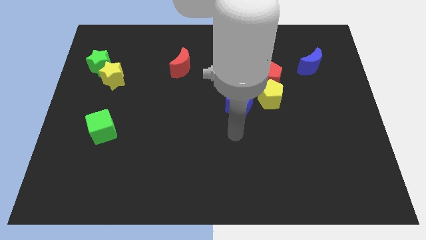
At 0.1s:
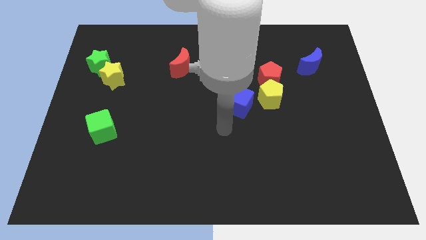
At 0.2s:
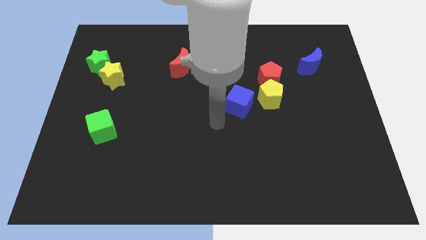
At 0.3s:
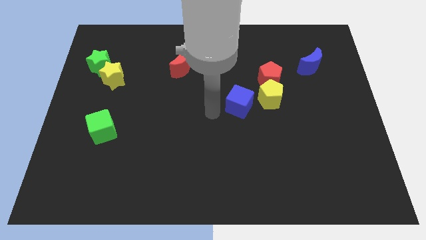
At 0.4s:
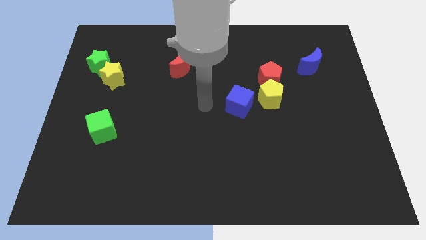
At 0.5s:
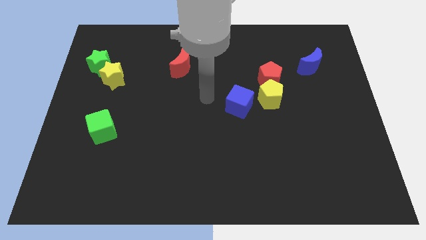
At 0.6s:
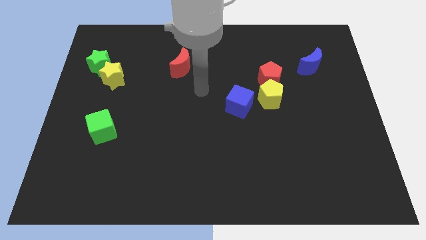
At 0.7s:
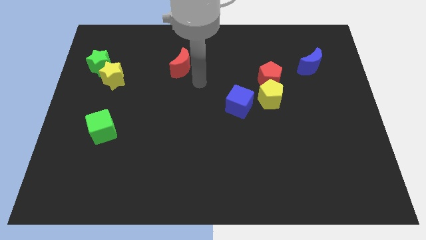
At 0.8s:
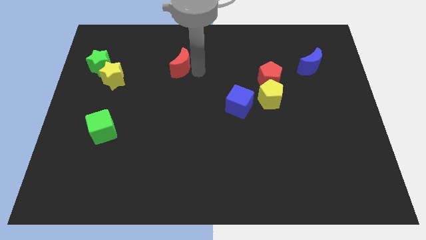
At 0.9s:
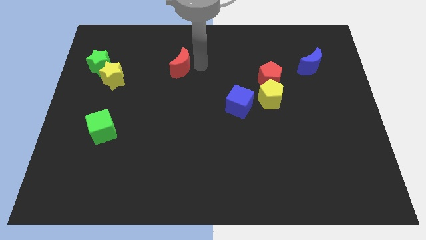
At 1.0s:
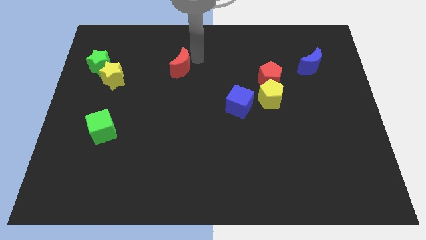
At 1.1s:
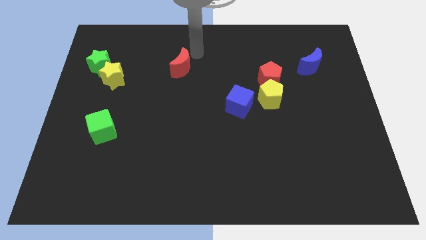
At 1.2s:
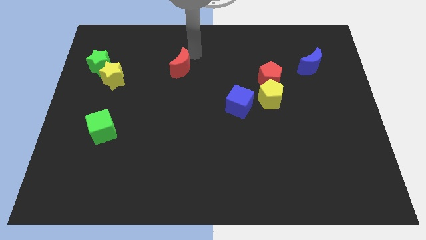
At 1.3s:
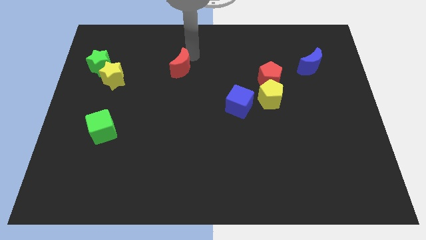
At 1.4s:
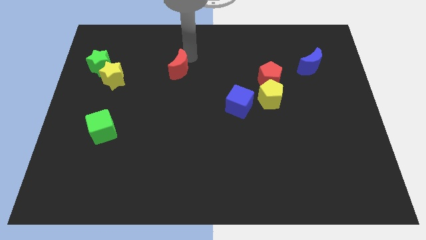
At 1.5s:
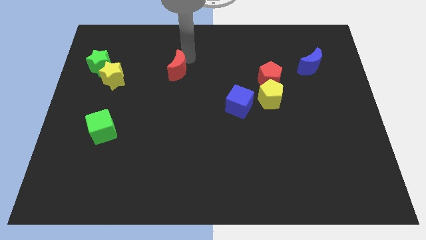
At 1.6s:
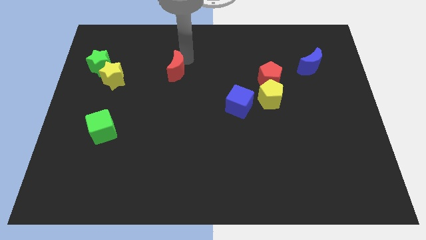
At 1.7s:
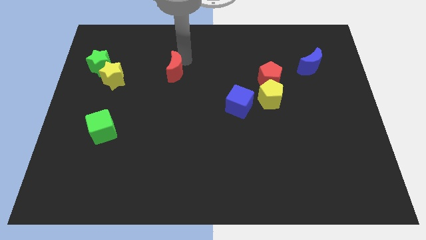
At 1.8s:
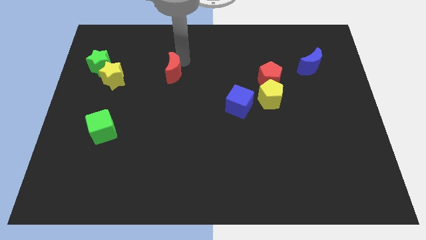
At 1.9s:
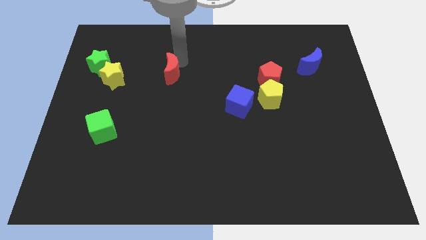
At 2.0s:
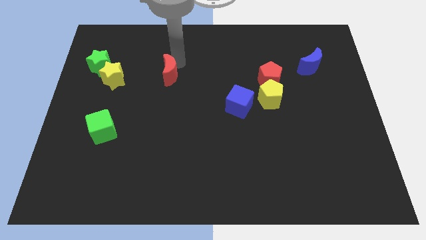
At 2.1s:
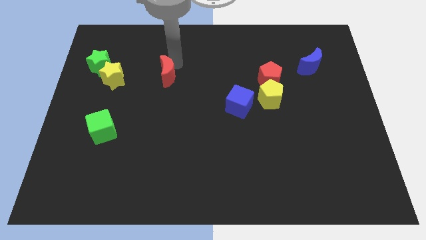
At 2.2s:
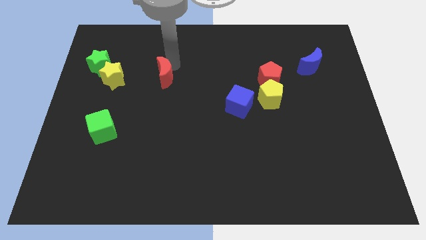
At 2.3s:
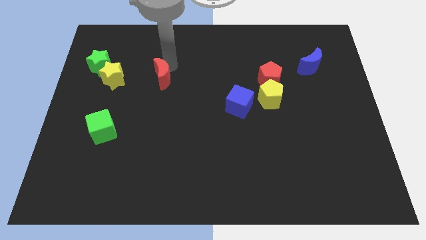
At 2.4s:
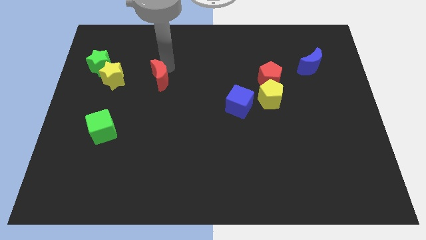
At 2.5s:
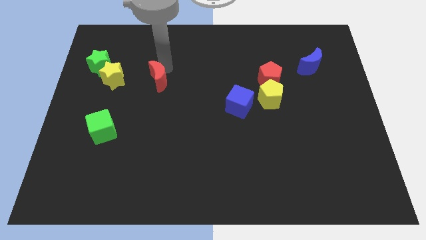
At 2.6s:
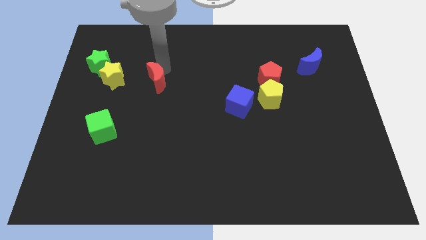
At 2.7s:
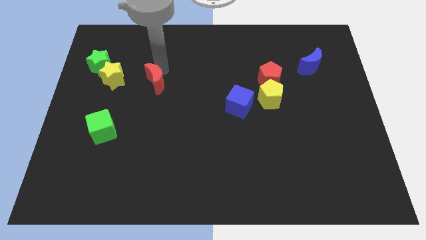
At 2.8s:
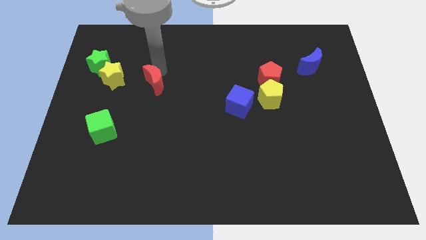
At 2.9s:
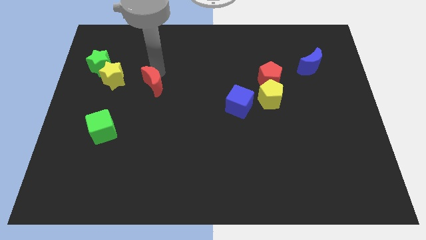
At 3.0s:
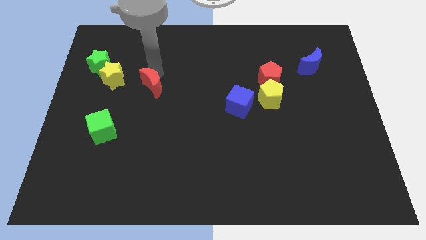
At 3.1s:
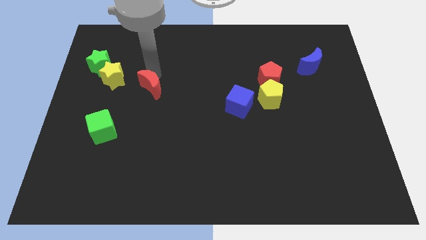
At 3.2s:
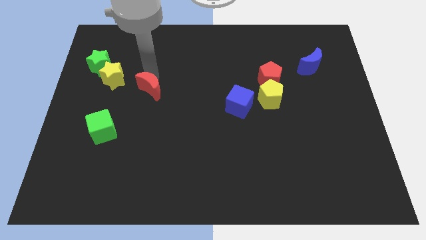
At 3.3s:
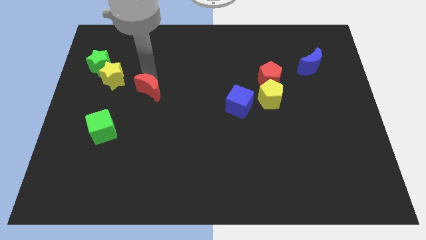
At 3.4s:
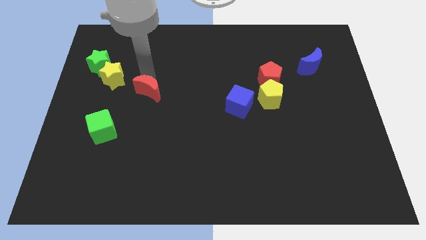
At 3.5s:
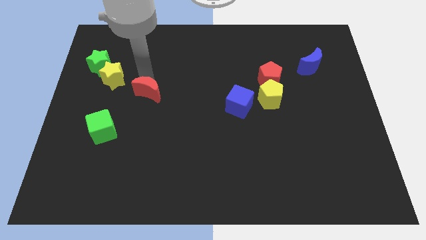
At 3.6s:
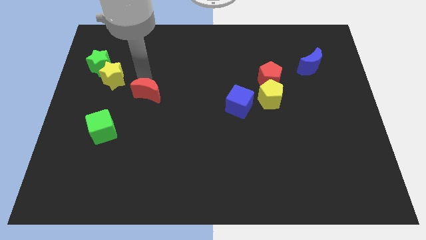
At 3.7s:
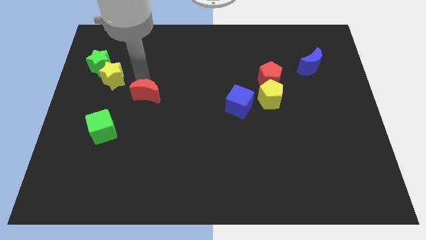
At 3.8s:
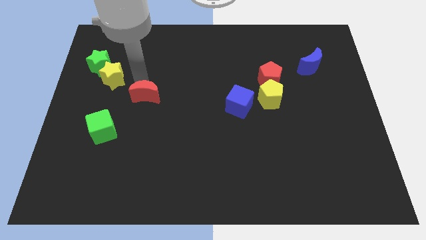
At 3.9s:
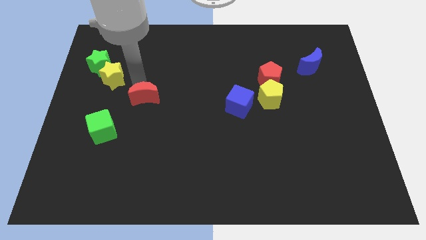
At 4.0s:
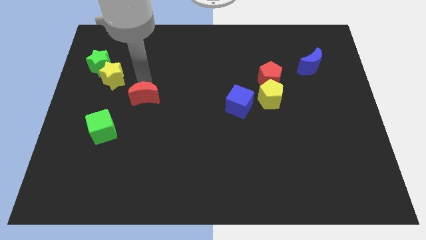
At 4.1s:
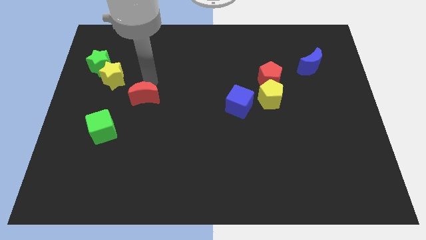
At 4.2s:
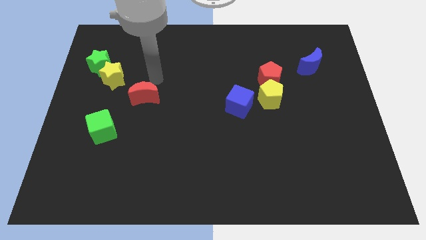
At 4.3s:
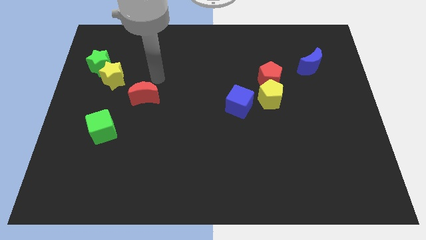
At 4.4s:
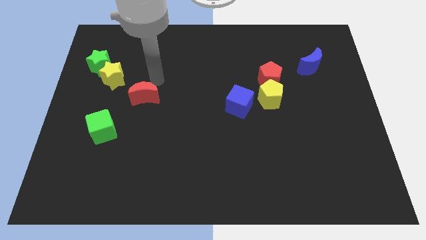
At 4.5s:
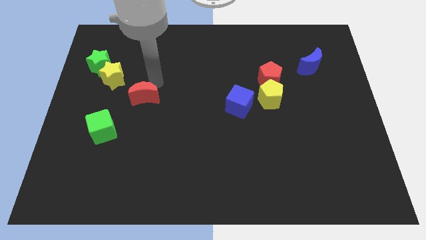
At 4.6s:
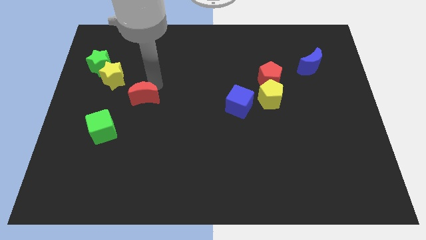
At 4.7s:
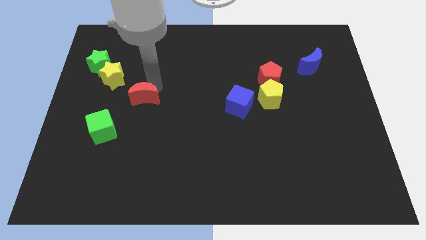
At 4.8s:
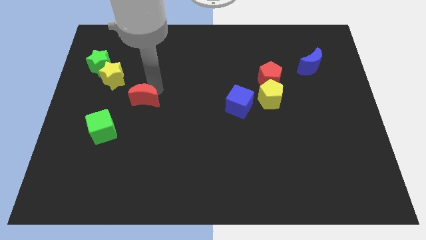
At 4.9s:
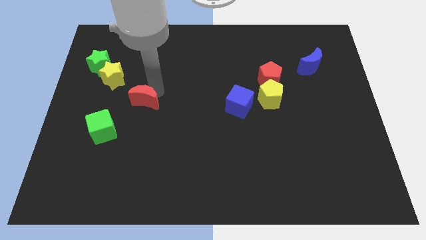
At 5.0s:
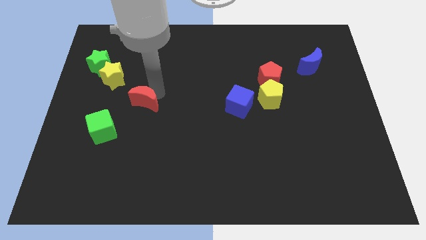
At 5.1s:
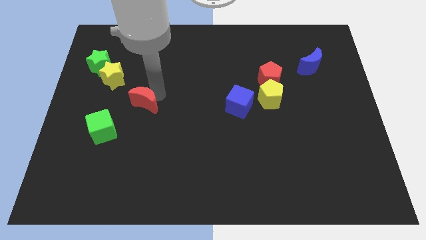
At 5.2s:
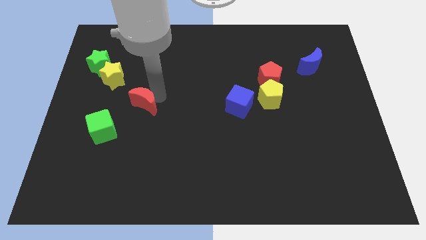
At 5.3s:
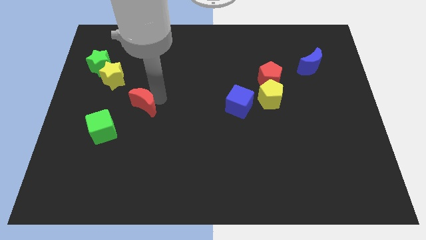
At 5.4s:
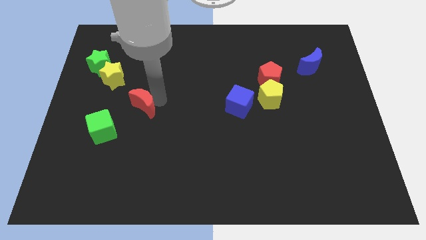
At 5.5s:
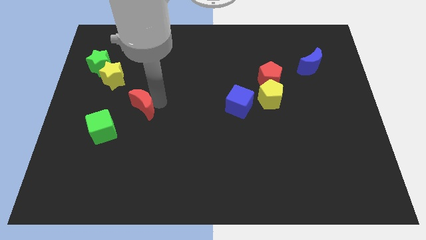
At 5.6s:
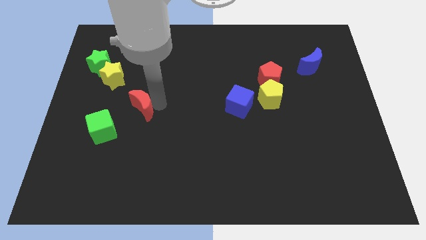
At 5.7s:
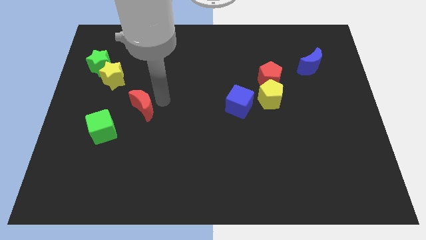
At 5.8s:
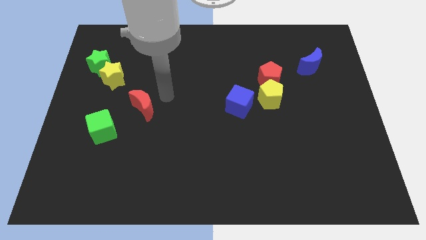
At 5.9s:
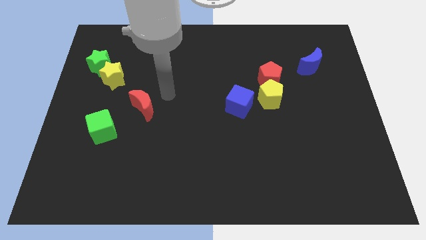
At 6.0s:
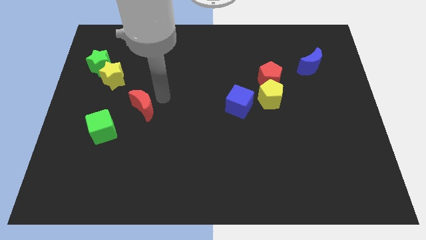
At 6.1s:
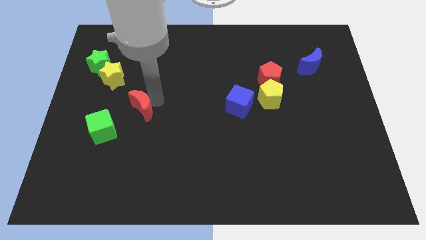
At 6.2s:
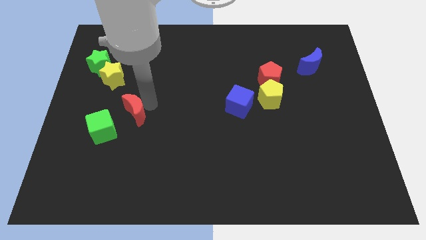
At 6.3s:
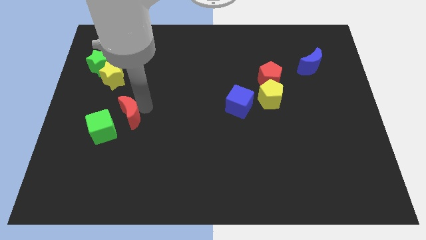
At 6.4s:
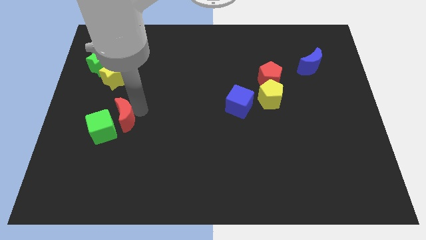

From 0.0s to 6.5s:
push the red moon next to the green cube
